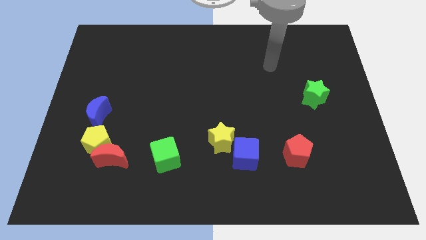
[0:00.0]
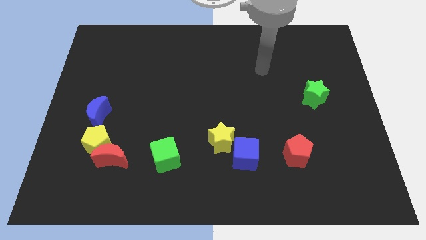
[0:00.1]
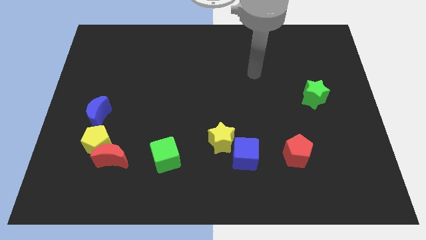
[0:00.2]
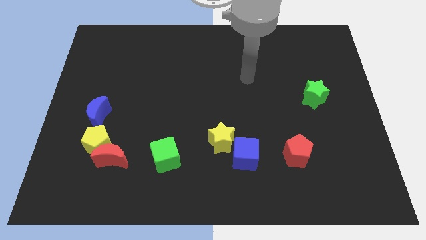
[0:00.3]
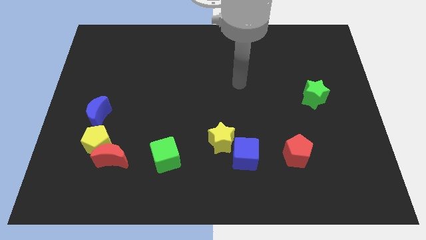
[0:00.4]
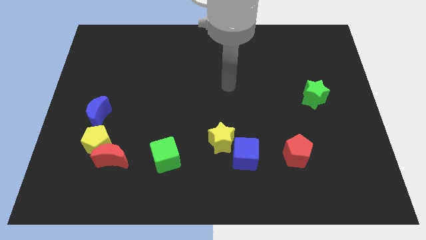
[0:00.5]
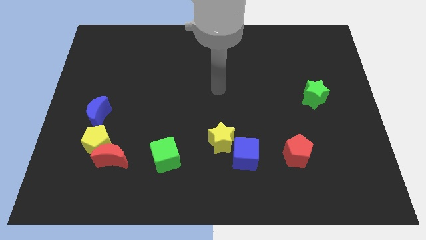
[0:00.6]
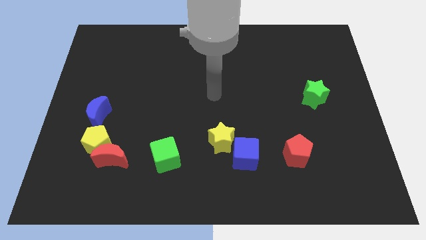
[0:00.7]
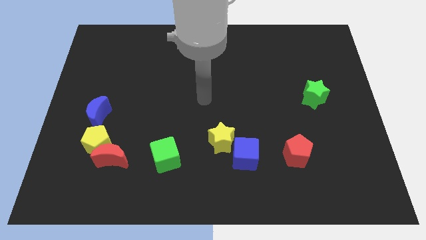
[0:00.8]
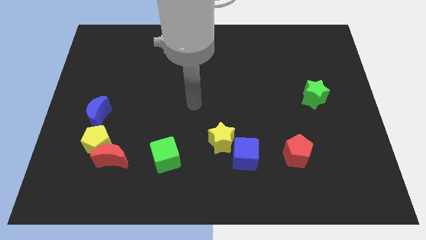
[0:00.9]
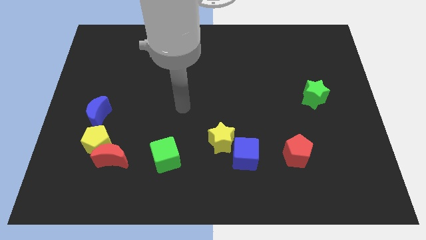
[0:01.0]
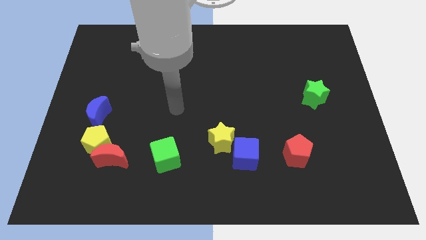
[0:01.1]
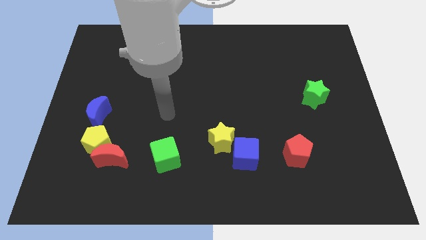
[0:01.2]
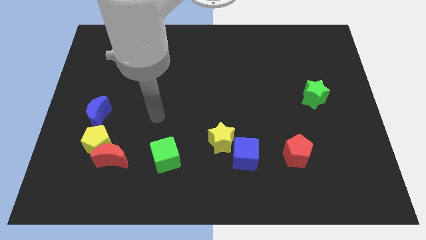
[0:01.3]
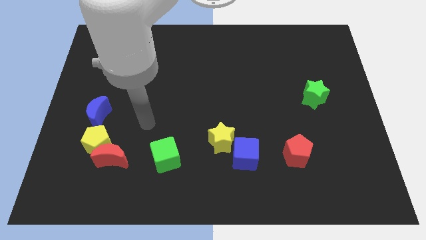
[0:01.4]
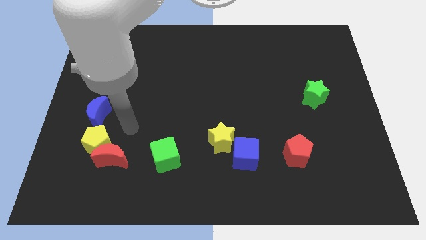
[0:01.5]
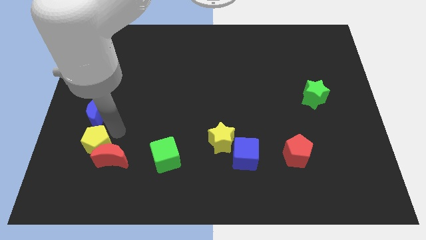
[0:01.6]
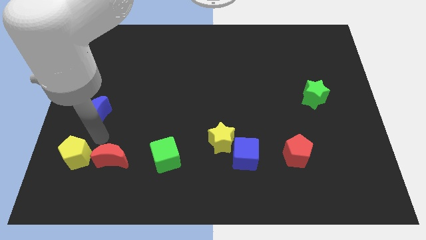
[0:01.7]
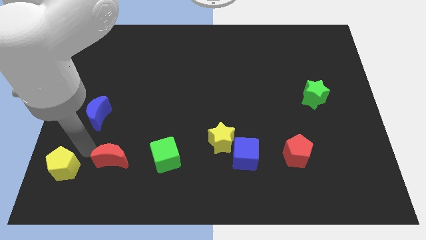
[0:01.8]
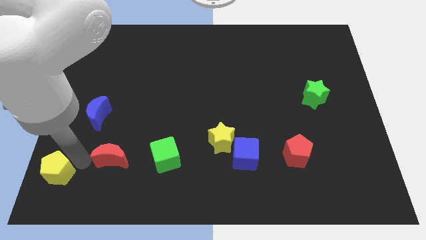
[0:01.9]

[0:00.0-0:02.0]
move the red moon away from the yellow pentagon

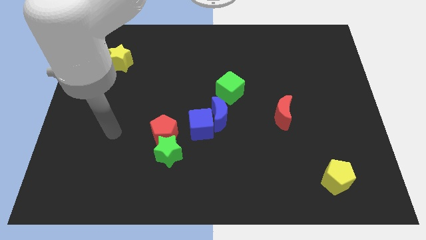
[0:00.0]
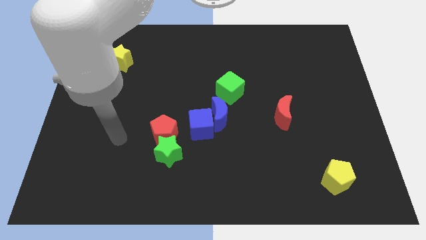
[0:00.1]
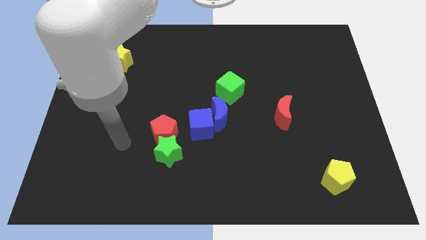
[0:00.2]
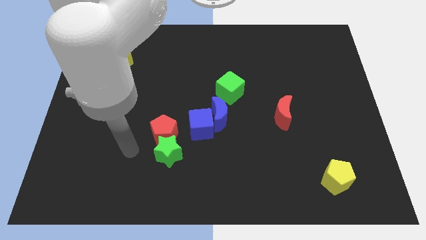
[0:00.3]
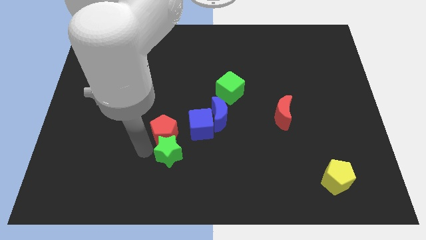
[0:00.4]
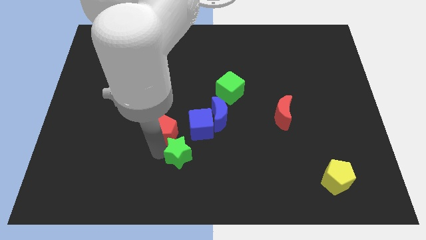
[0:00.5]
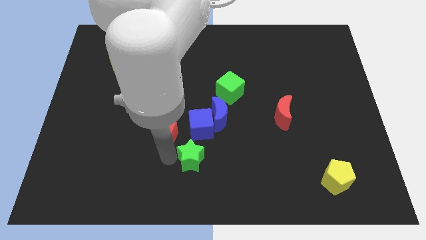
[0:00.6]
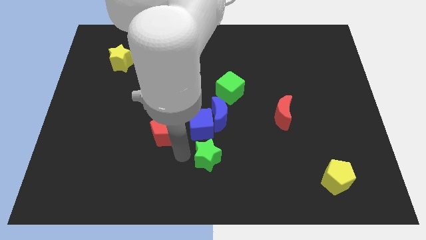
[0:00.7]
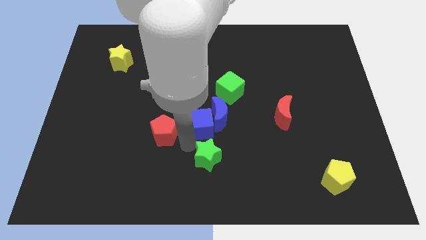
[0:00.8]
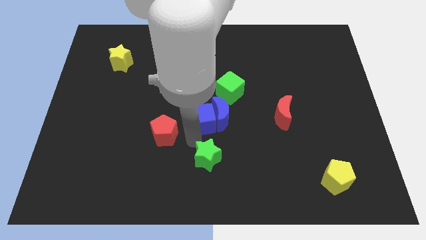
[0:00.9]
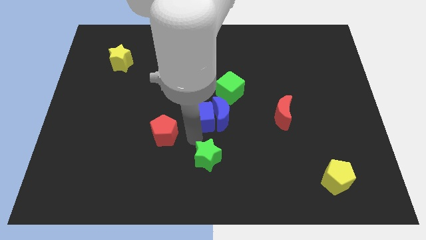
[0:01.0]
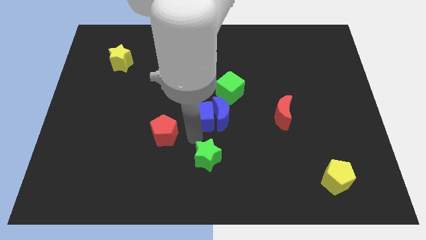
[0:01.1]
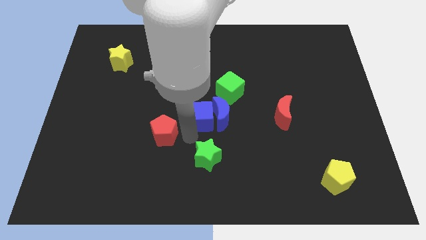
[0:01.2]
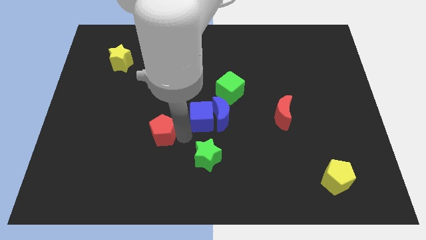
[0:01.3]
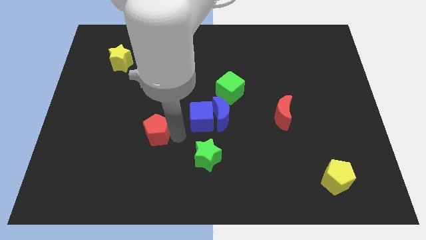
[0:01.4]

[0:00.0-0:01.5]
pull the red pentagon apart from the green star and blue cube

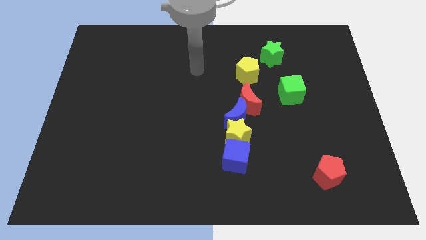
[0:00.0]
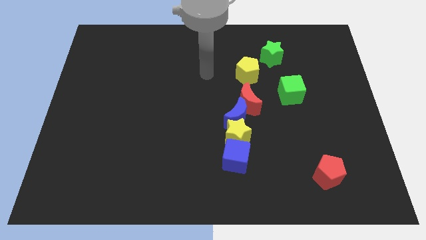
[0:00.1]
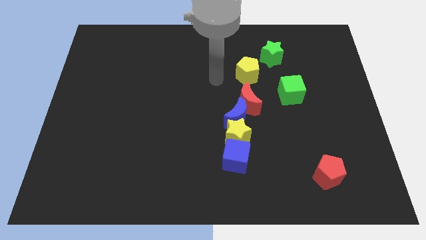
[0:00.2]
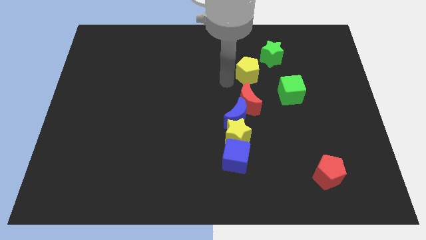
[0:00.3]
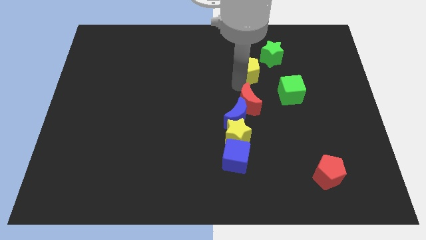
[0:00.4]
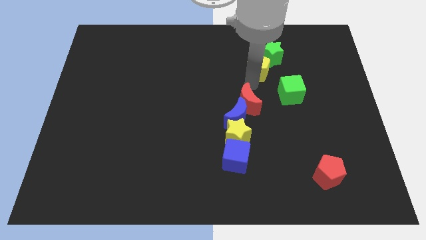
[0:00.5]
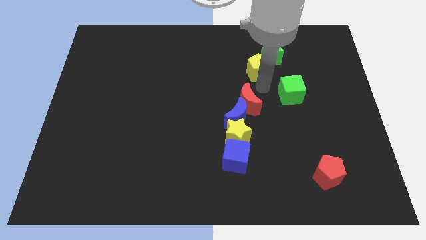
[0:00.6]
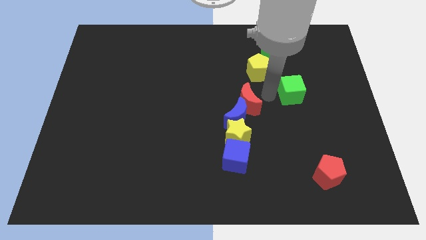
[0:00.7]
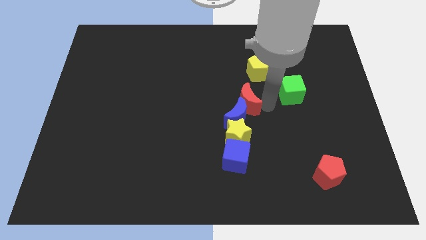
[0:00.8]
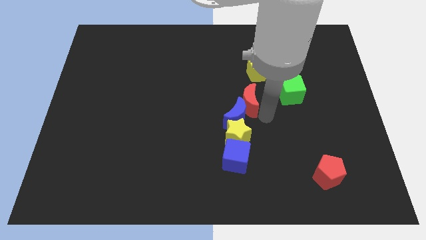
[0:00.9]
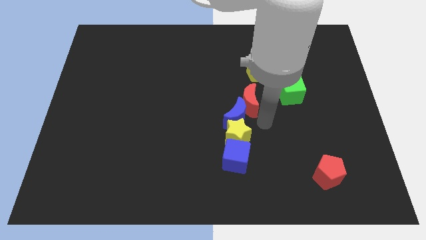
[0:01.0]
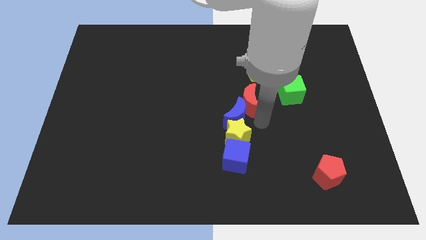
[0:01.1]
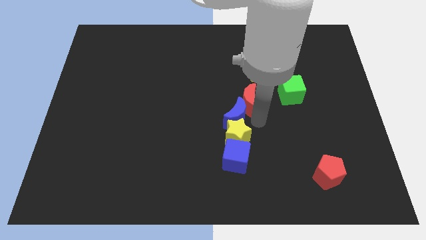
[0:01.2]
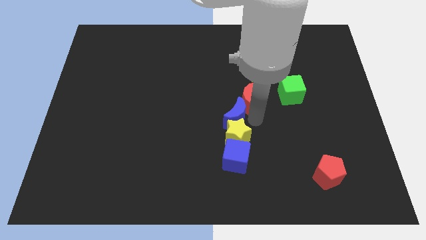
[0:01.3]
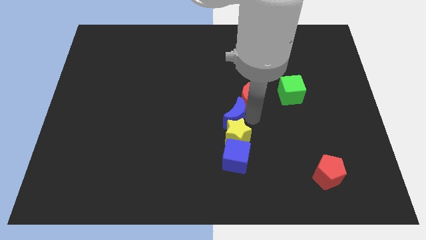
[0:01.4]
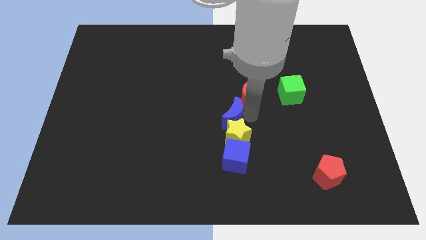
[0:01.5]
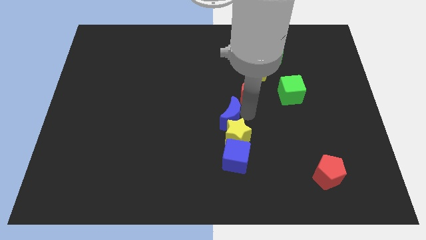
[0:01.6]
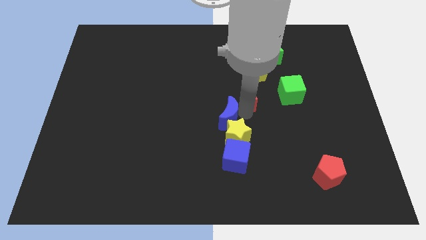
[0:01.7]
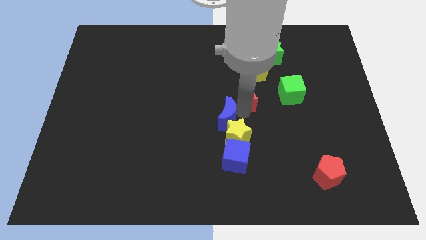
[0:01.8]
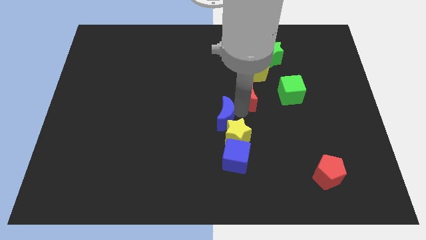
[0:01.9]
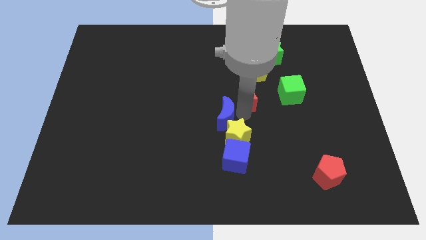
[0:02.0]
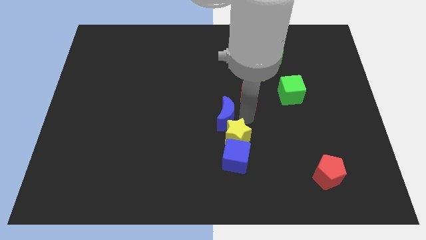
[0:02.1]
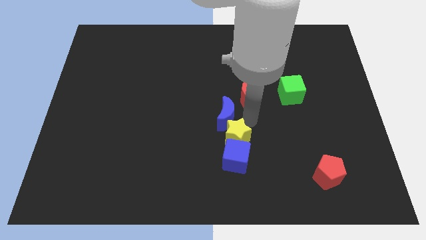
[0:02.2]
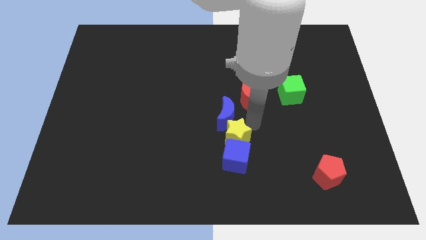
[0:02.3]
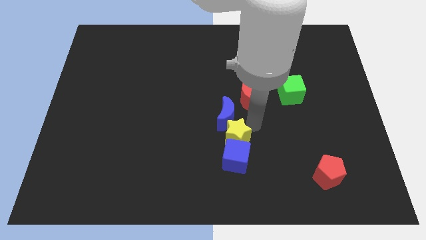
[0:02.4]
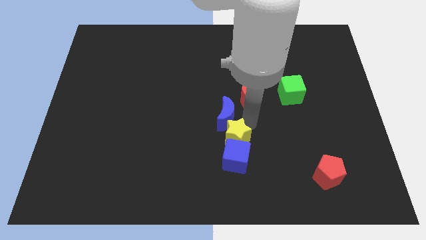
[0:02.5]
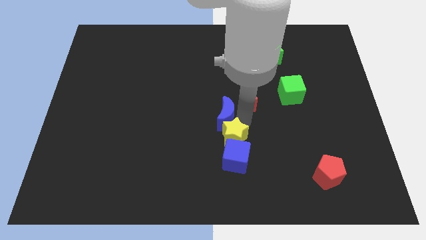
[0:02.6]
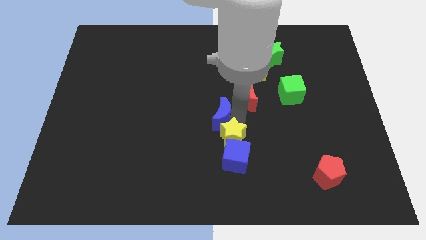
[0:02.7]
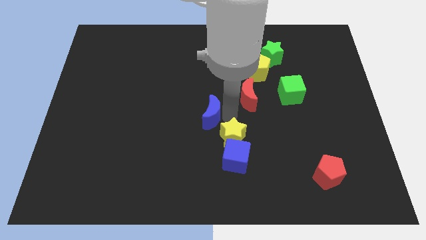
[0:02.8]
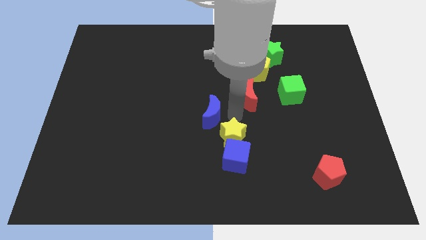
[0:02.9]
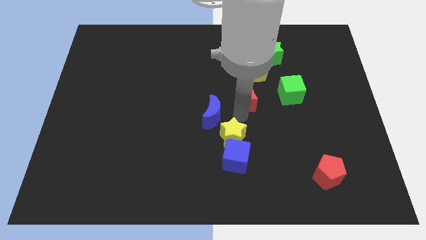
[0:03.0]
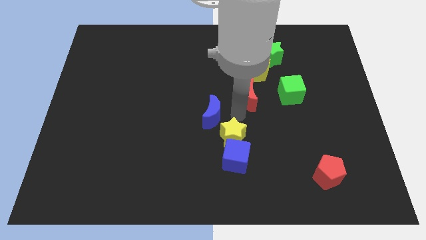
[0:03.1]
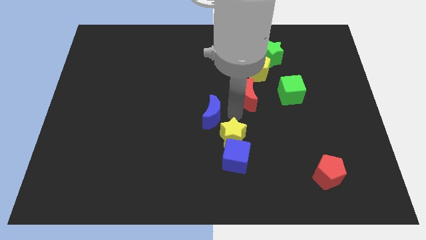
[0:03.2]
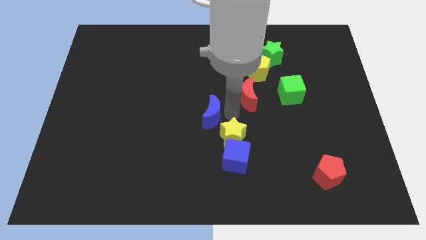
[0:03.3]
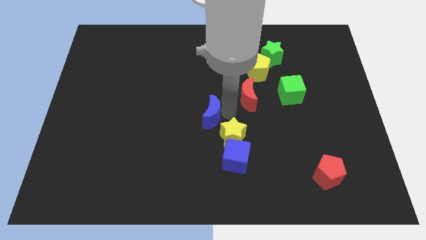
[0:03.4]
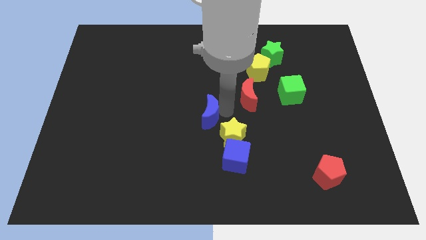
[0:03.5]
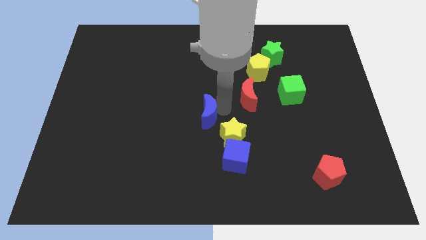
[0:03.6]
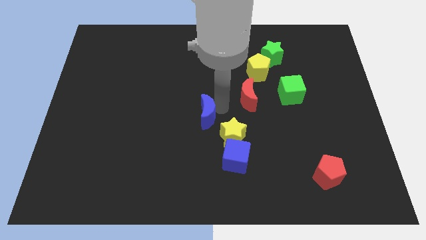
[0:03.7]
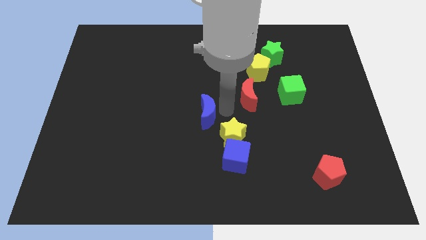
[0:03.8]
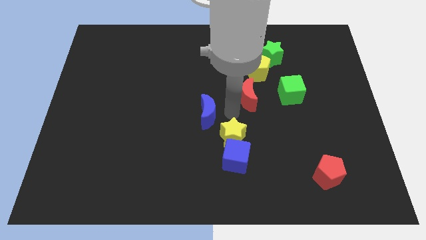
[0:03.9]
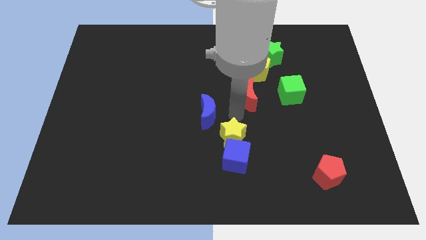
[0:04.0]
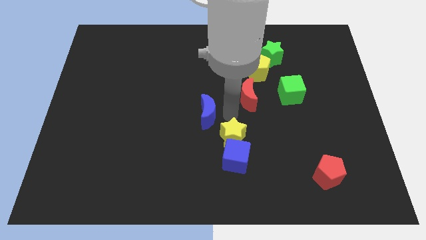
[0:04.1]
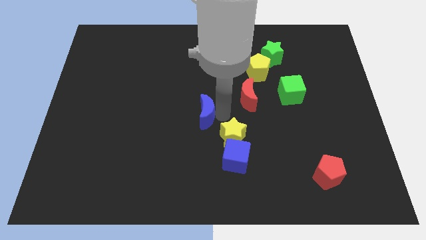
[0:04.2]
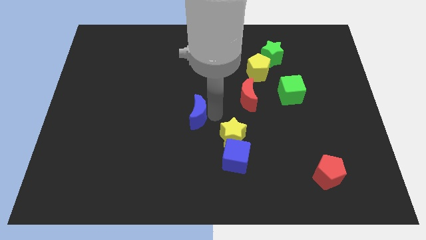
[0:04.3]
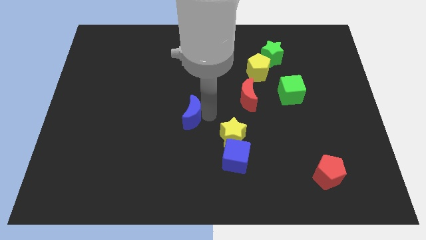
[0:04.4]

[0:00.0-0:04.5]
separate the blue moon from the yellow star and red moon

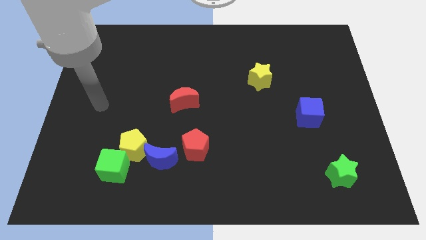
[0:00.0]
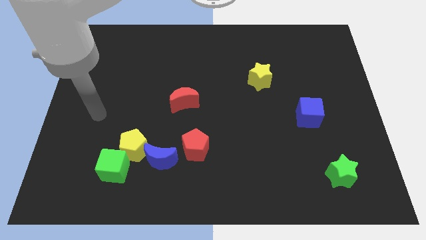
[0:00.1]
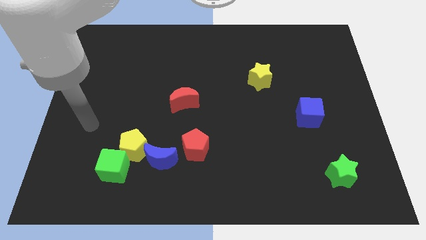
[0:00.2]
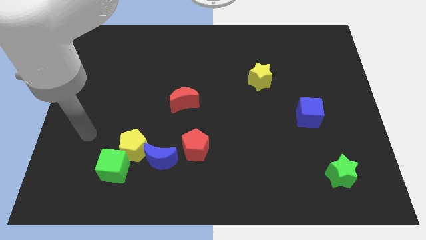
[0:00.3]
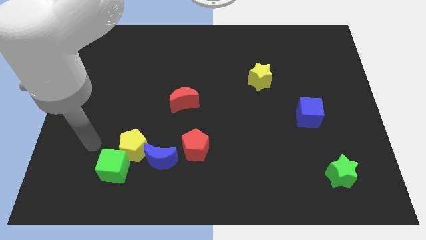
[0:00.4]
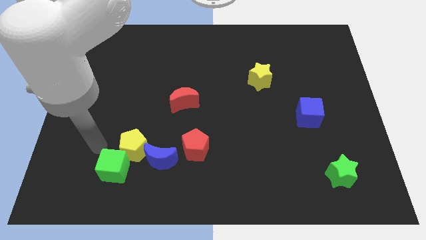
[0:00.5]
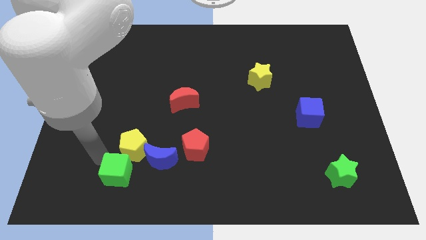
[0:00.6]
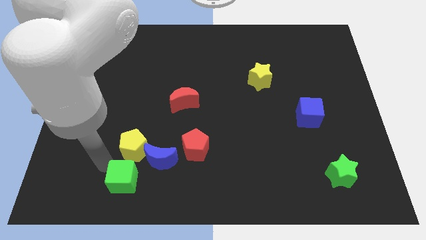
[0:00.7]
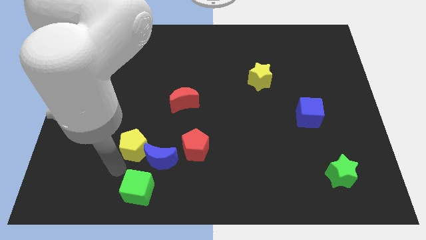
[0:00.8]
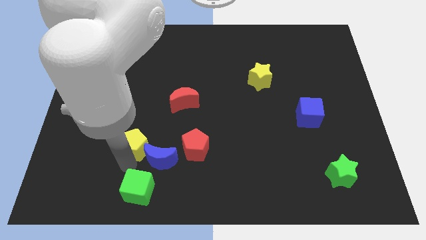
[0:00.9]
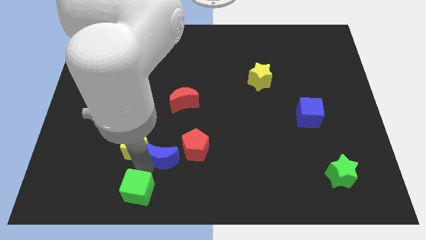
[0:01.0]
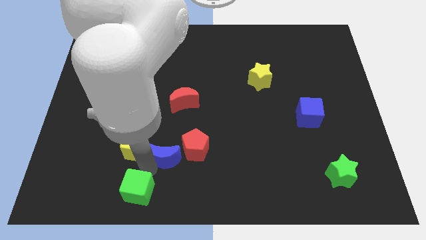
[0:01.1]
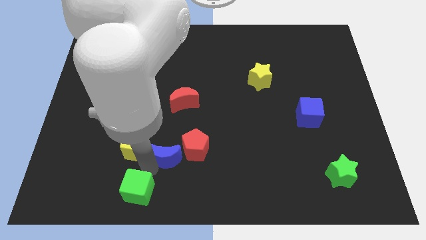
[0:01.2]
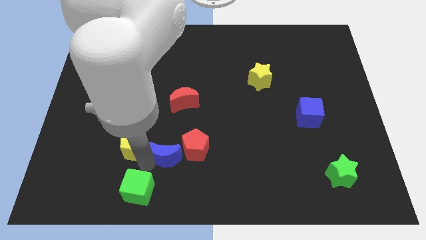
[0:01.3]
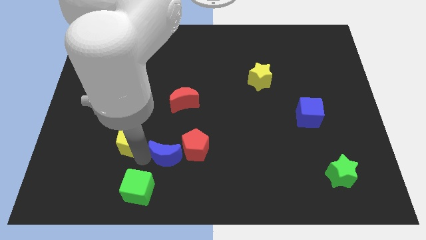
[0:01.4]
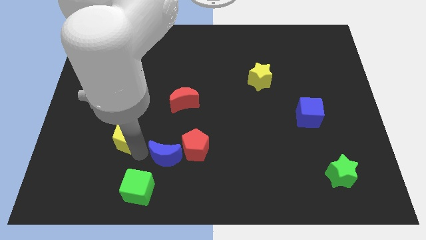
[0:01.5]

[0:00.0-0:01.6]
separate the yellow pentagon from the green cube and blue moon
